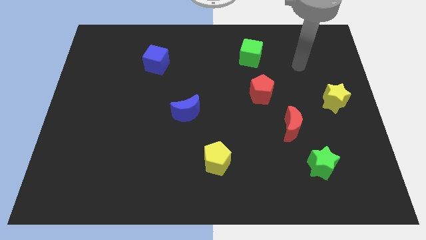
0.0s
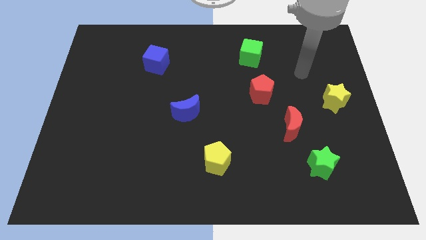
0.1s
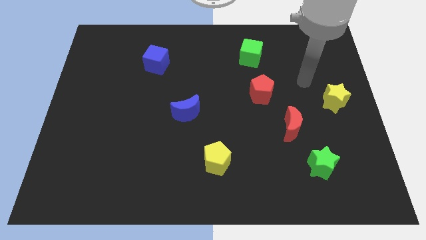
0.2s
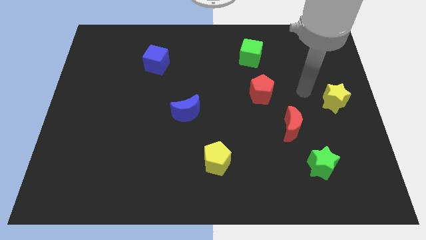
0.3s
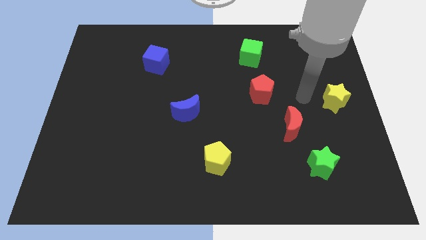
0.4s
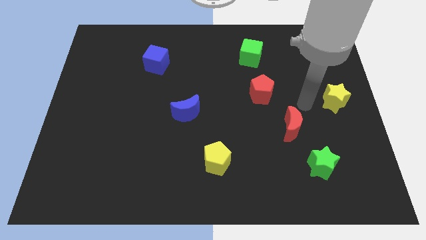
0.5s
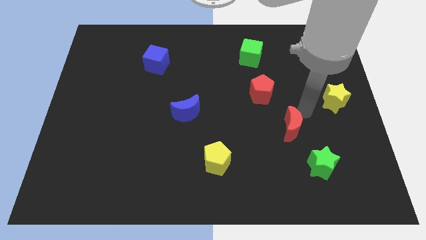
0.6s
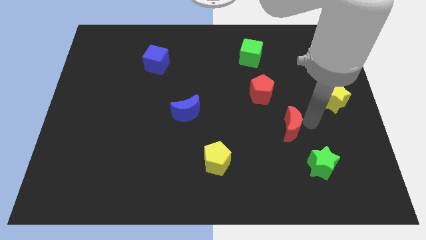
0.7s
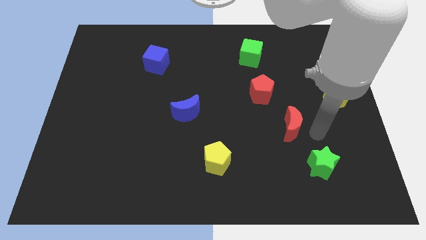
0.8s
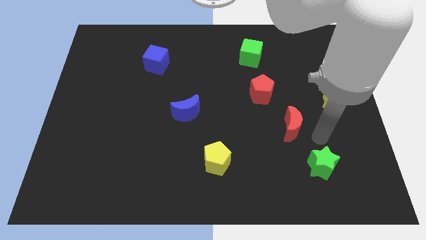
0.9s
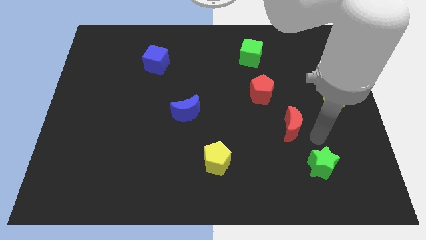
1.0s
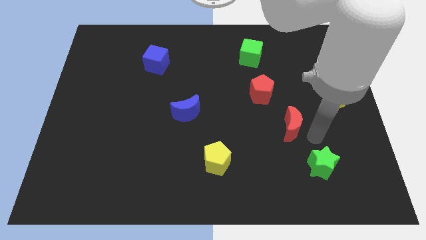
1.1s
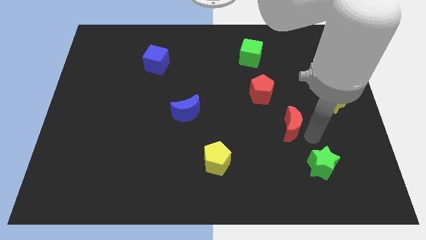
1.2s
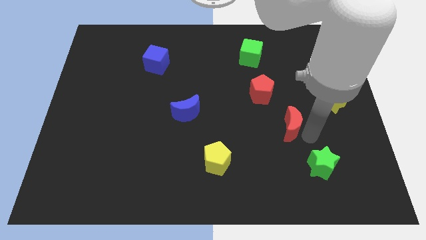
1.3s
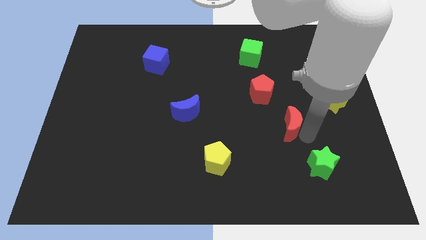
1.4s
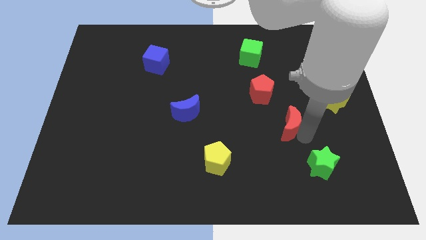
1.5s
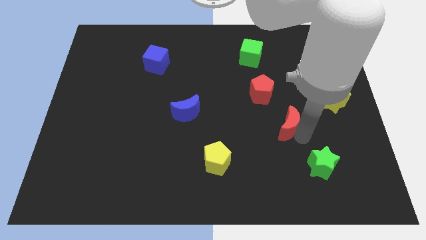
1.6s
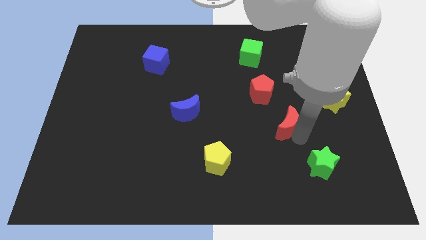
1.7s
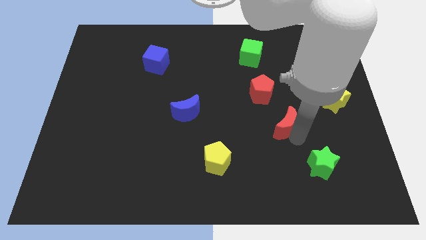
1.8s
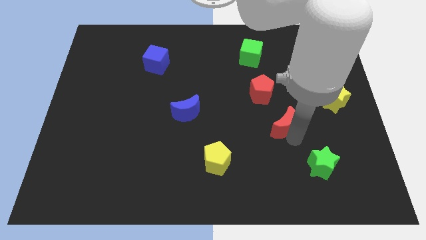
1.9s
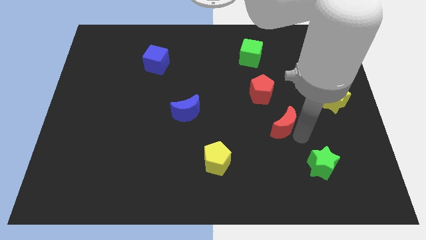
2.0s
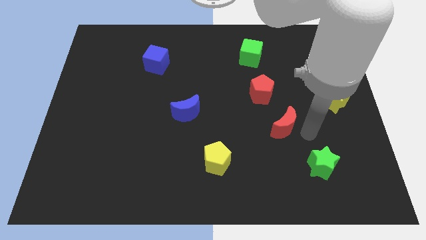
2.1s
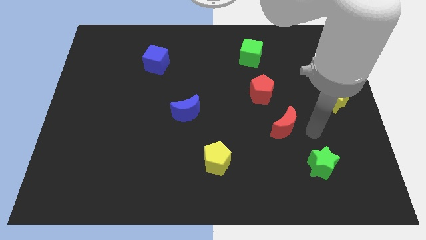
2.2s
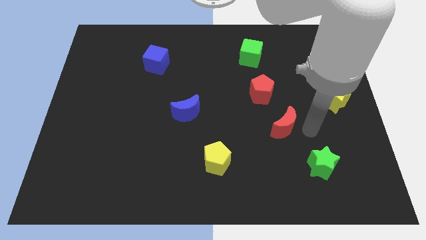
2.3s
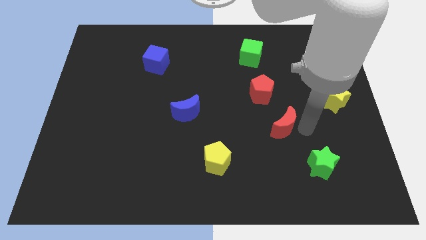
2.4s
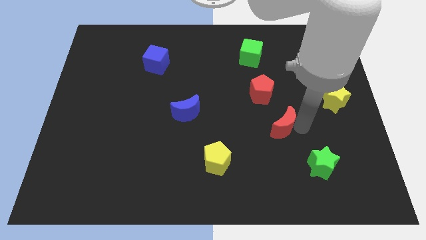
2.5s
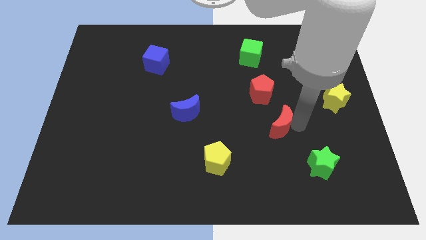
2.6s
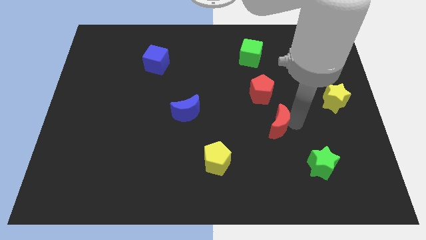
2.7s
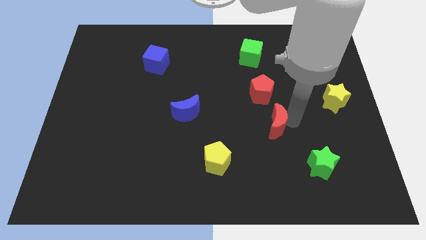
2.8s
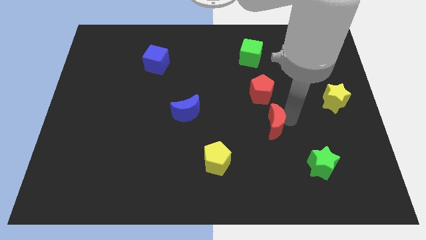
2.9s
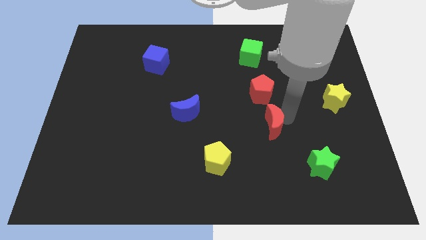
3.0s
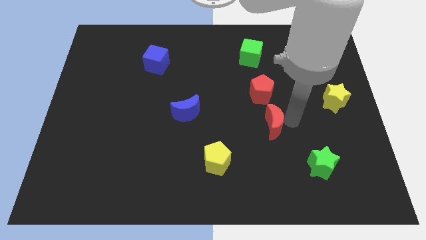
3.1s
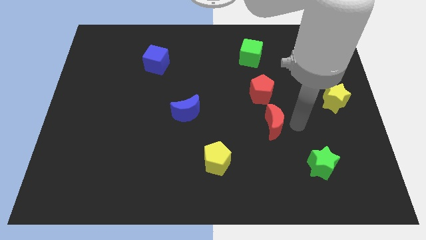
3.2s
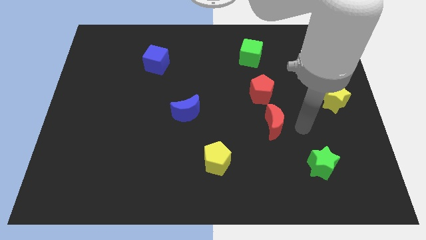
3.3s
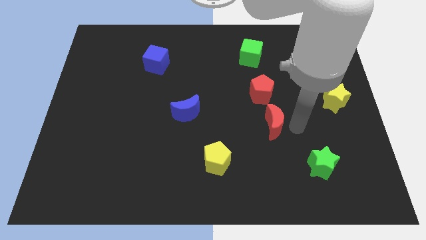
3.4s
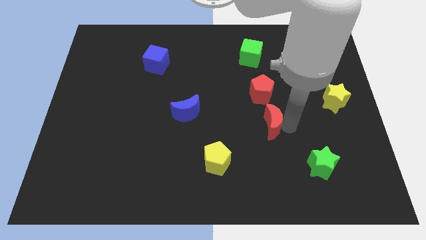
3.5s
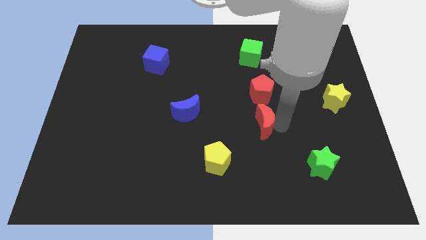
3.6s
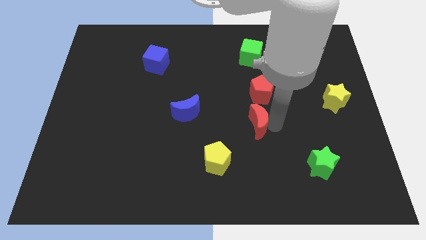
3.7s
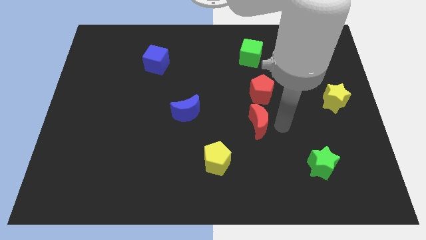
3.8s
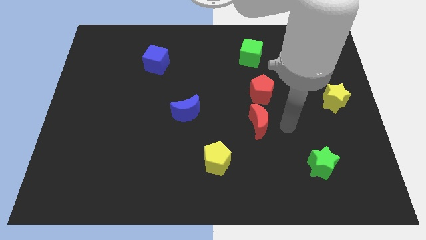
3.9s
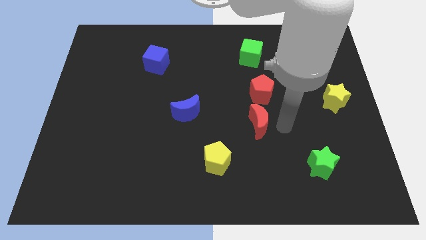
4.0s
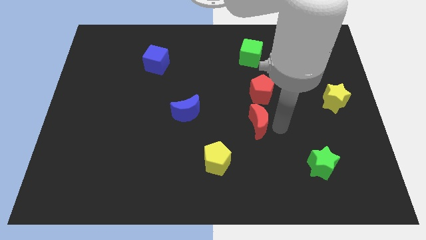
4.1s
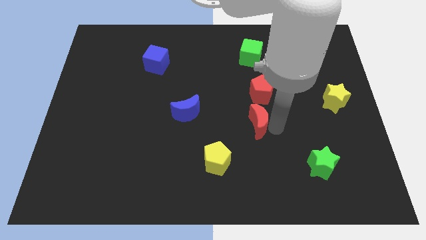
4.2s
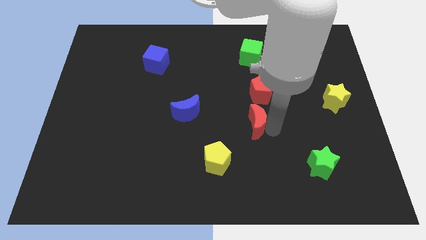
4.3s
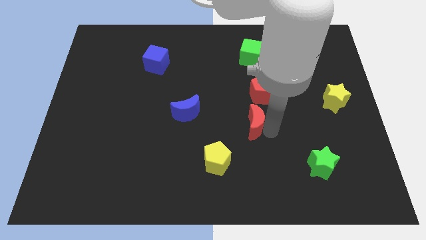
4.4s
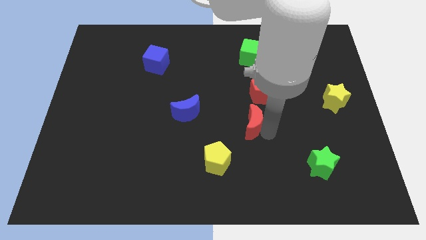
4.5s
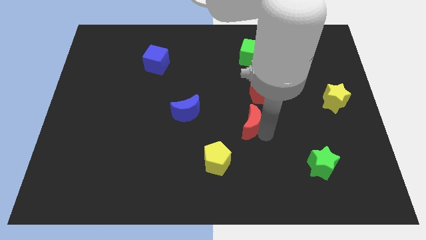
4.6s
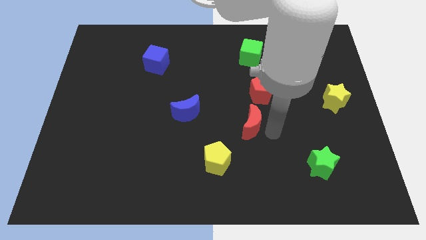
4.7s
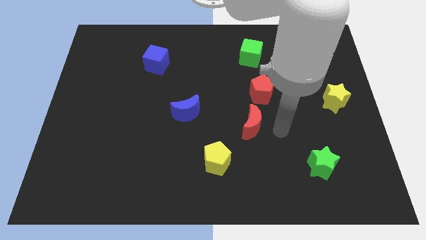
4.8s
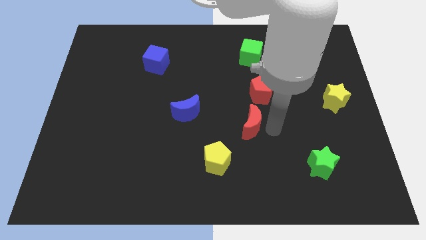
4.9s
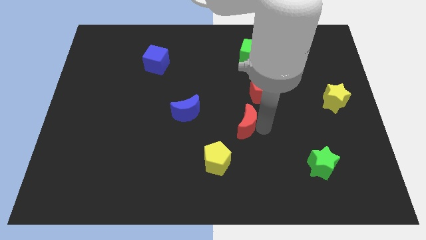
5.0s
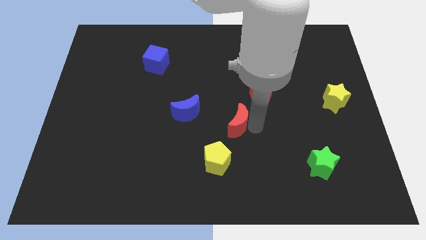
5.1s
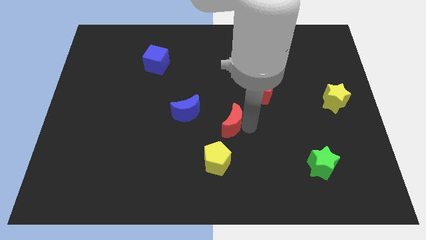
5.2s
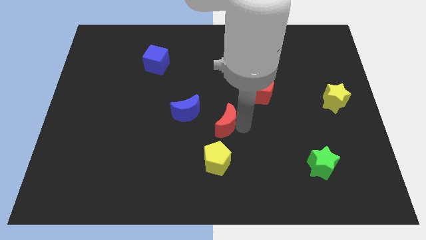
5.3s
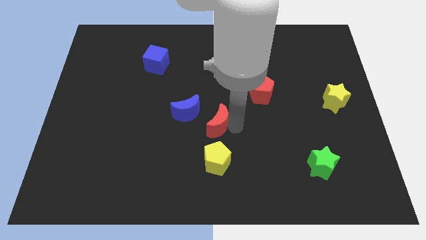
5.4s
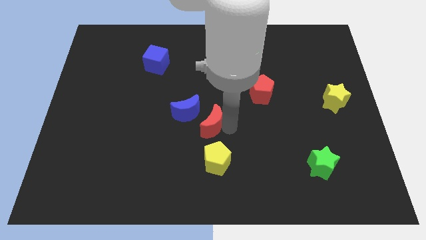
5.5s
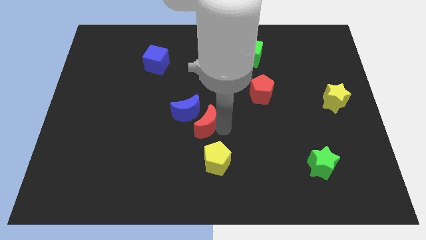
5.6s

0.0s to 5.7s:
slide the red moon towards the blue moon

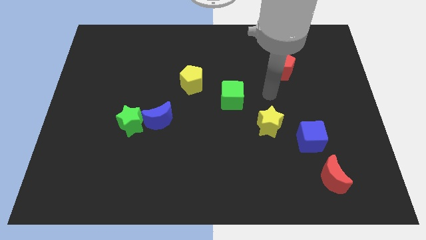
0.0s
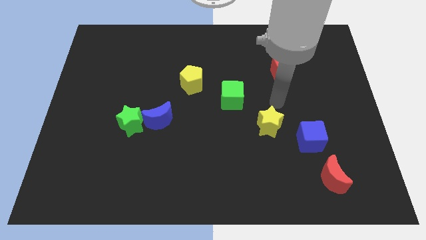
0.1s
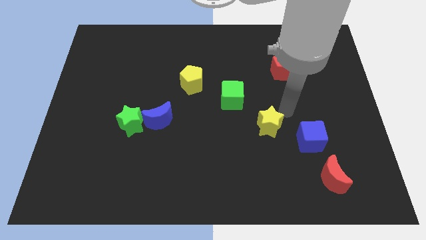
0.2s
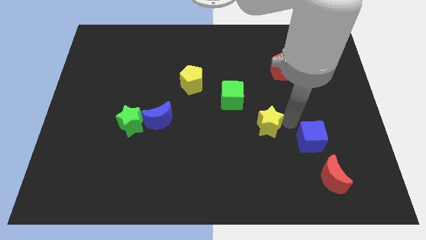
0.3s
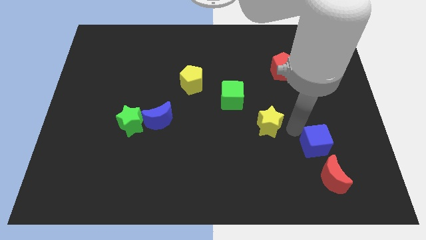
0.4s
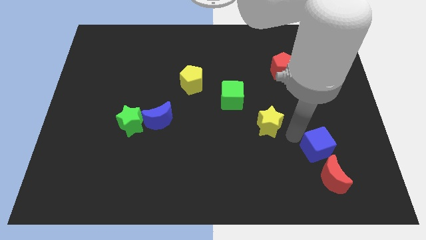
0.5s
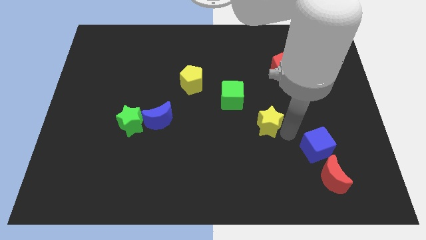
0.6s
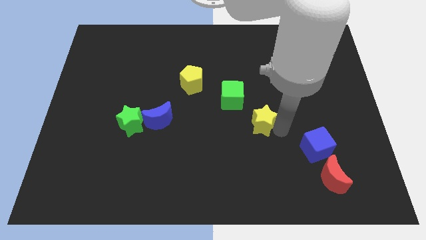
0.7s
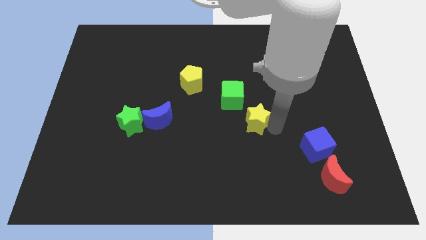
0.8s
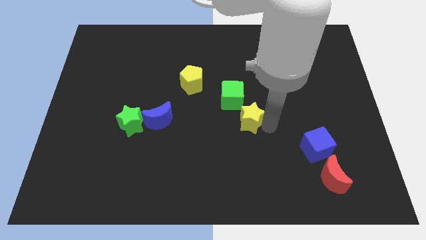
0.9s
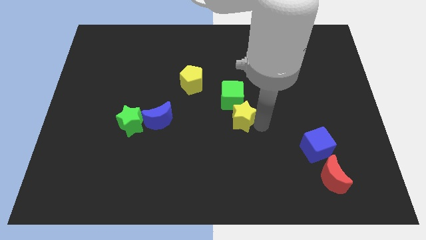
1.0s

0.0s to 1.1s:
slide the yellow star towards the green cube

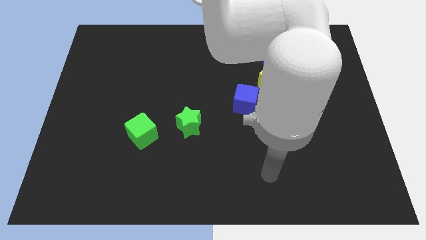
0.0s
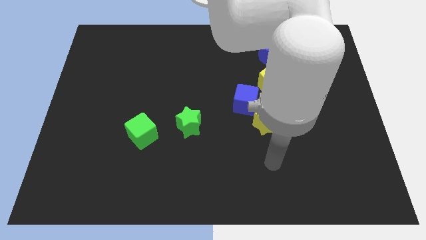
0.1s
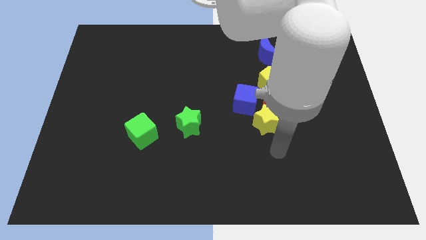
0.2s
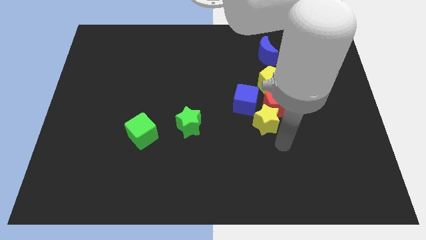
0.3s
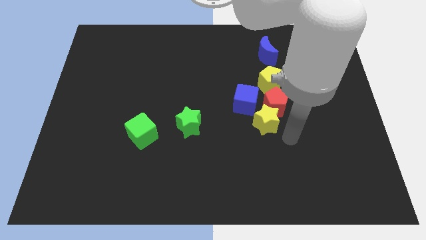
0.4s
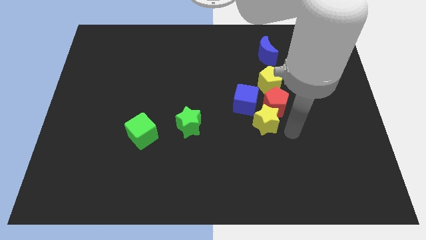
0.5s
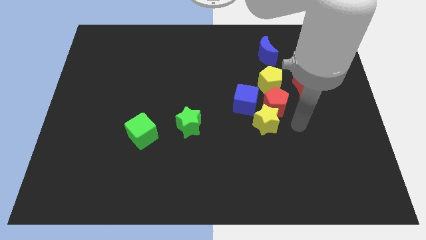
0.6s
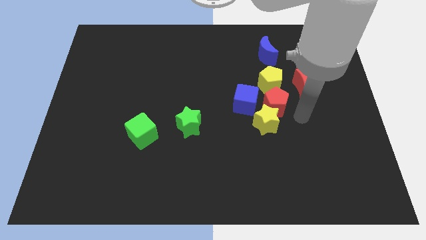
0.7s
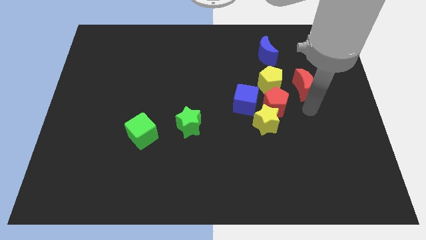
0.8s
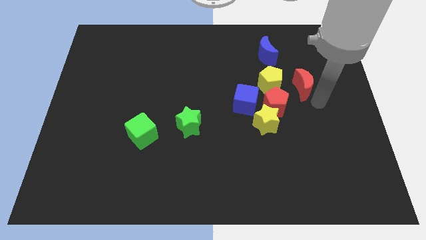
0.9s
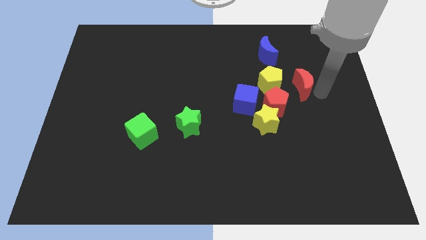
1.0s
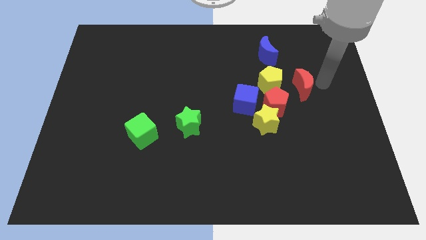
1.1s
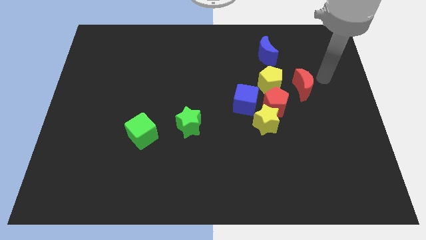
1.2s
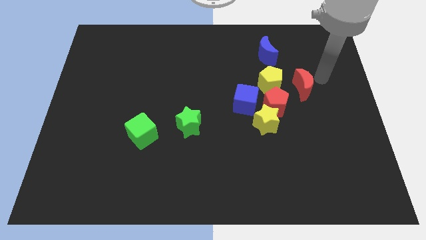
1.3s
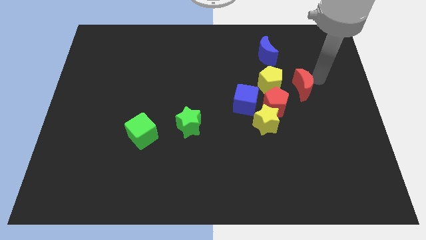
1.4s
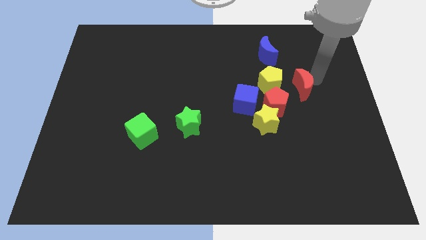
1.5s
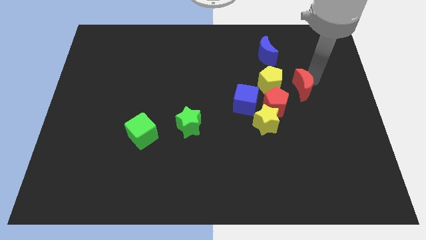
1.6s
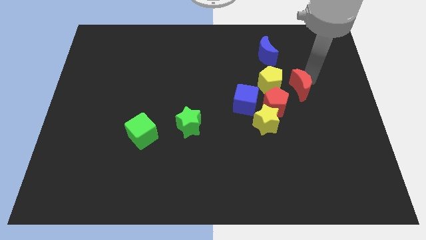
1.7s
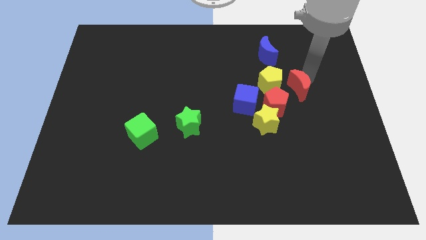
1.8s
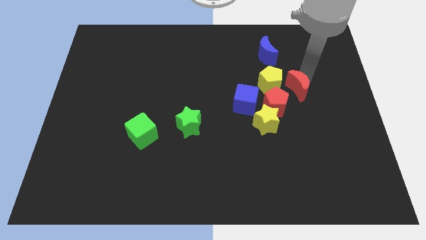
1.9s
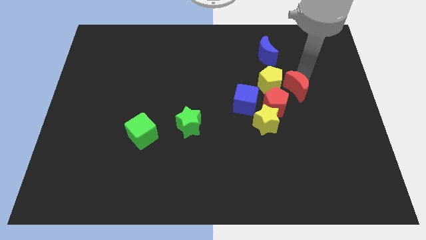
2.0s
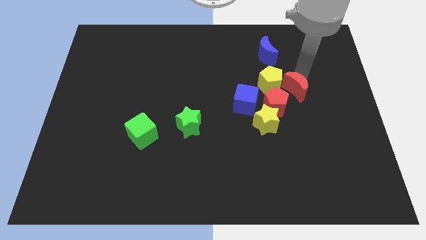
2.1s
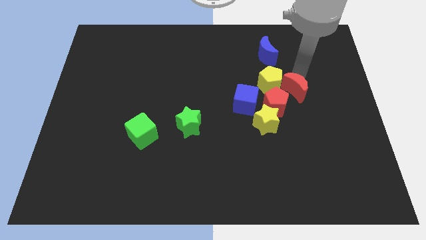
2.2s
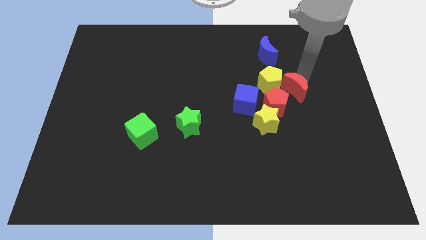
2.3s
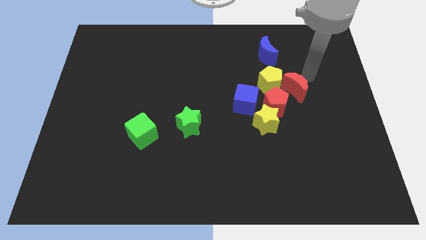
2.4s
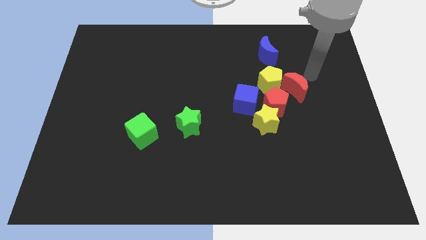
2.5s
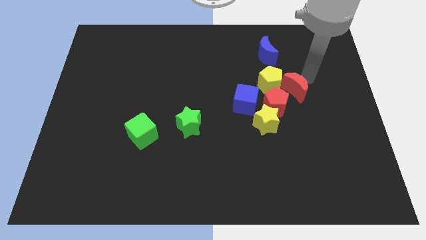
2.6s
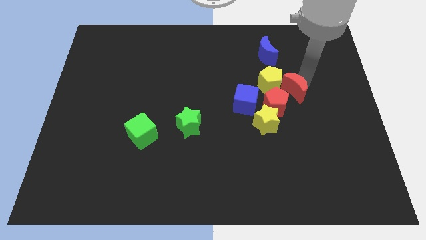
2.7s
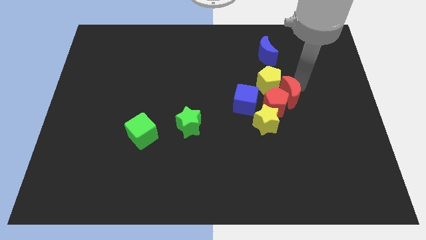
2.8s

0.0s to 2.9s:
put the red moon towards the red pentagon
